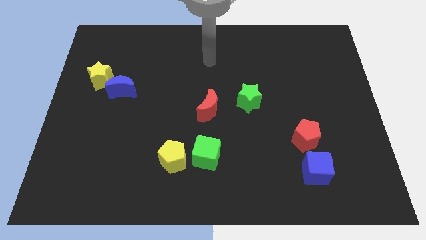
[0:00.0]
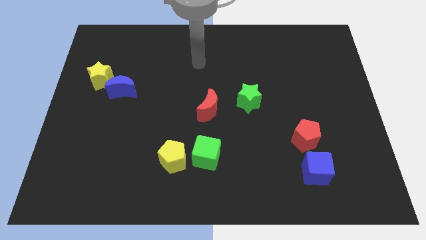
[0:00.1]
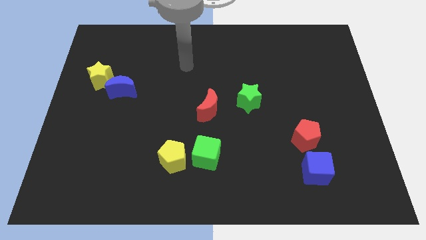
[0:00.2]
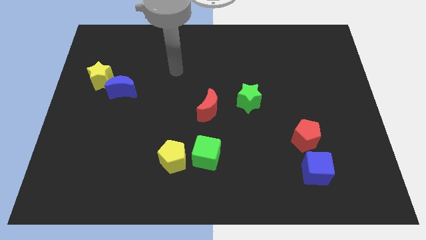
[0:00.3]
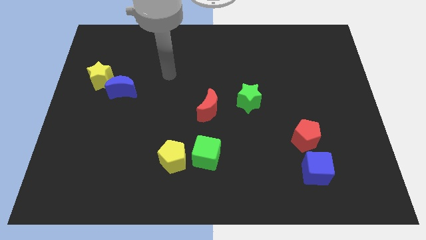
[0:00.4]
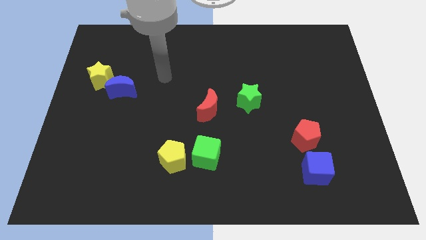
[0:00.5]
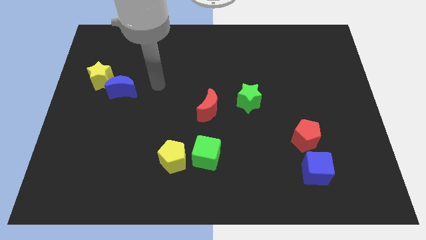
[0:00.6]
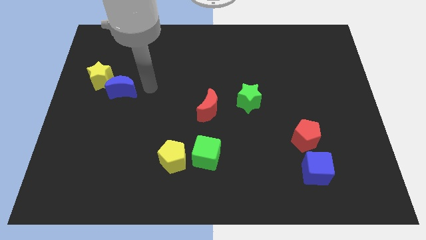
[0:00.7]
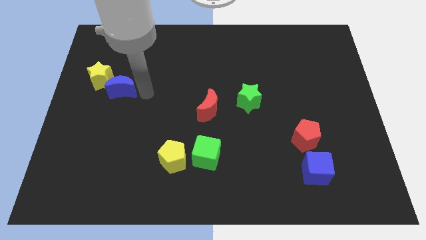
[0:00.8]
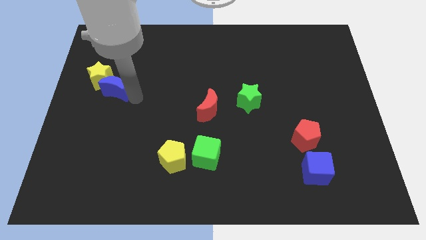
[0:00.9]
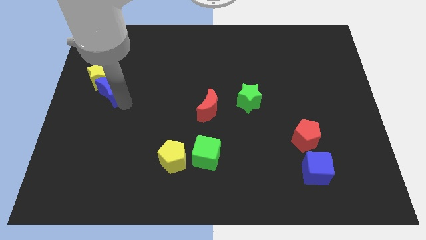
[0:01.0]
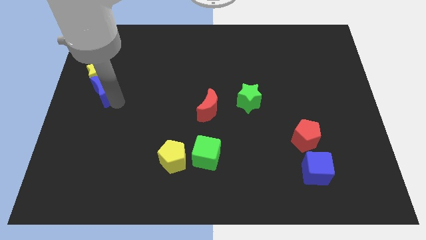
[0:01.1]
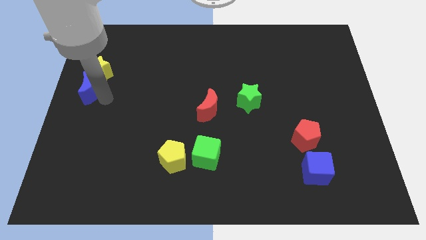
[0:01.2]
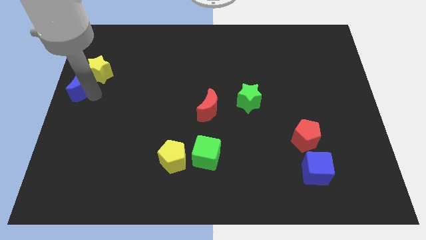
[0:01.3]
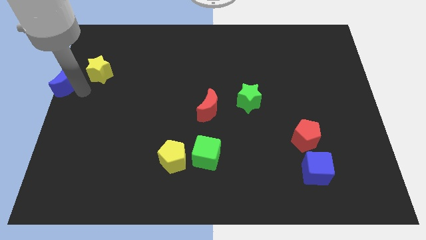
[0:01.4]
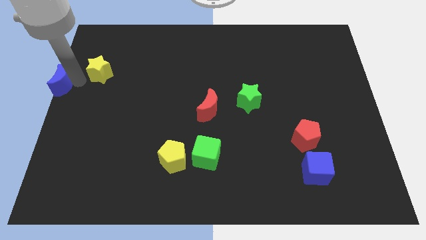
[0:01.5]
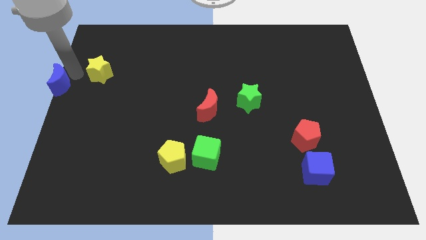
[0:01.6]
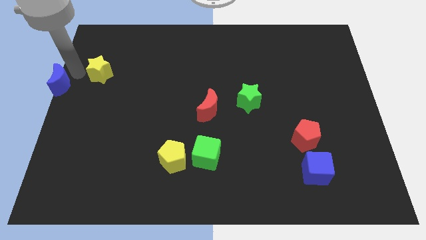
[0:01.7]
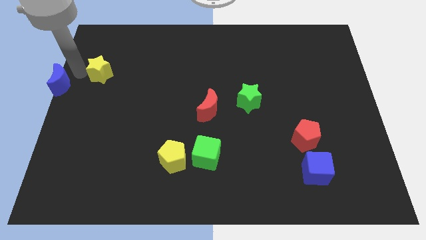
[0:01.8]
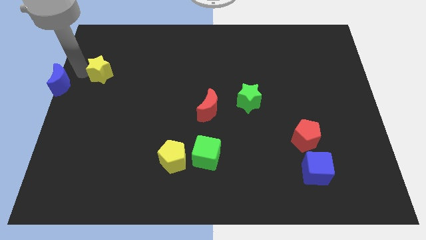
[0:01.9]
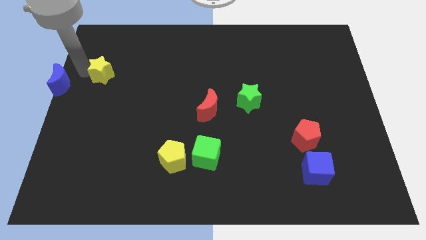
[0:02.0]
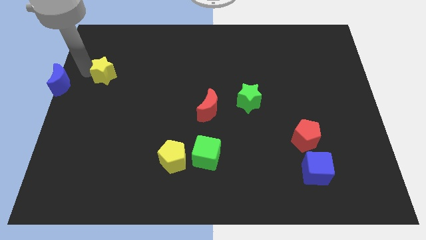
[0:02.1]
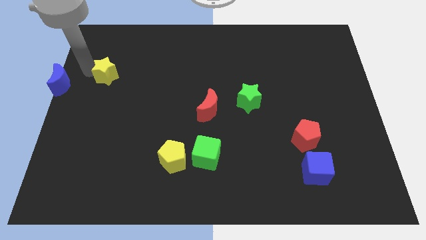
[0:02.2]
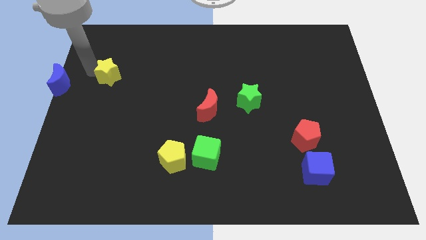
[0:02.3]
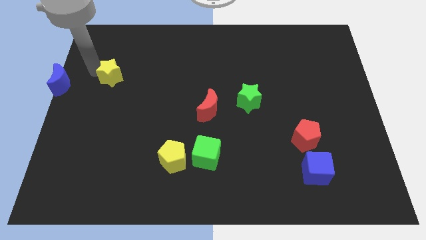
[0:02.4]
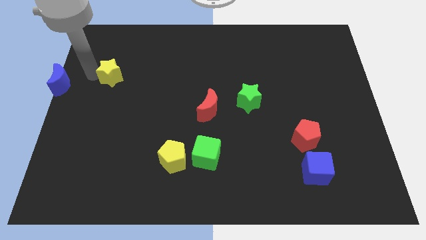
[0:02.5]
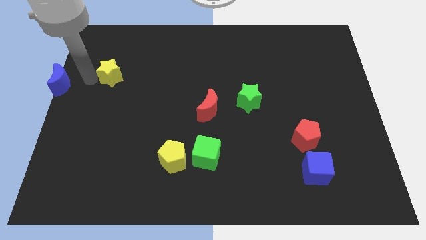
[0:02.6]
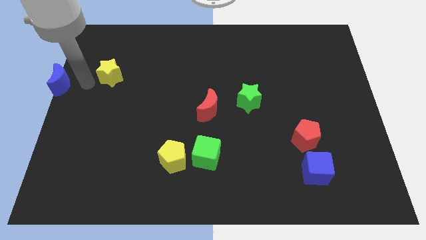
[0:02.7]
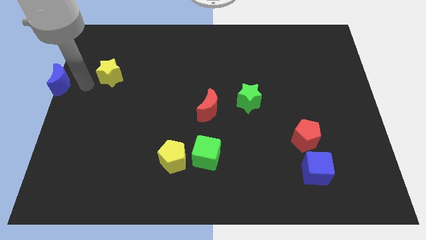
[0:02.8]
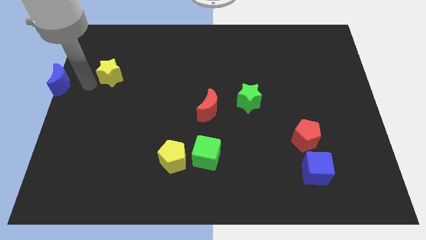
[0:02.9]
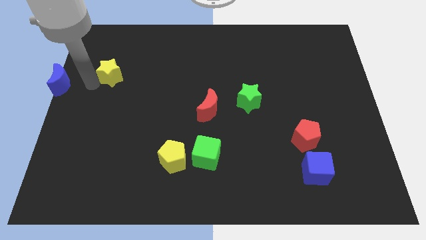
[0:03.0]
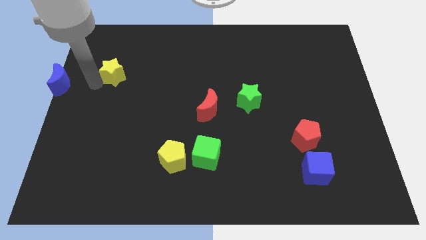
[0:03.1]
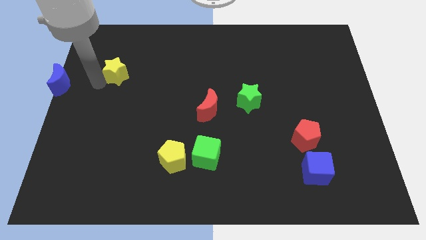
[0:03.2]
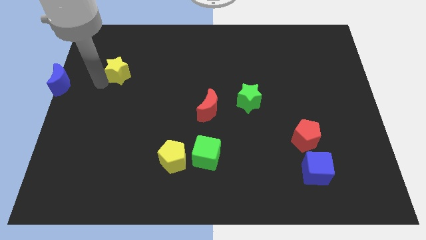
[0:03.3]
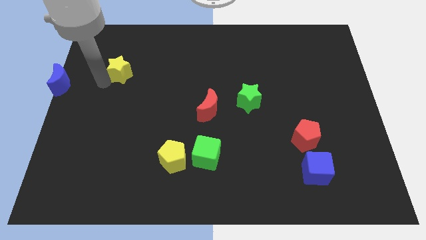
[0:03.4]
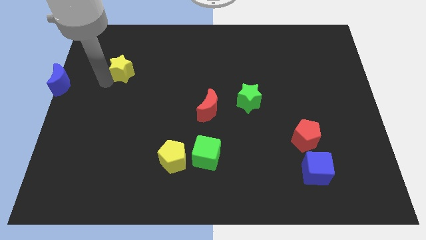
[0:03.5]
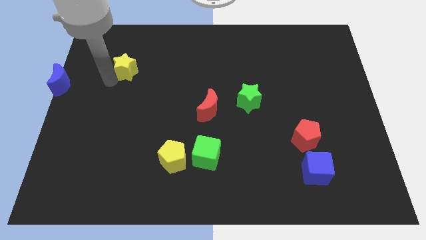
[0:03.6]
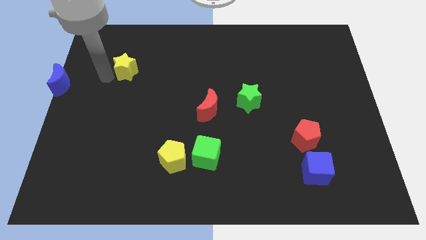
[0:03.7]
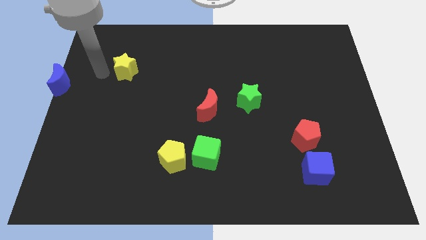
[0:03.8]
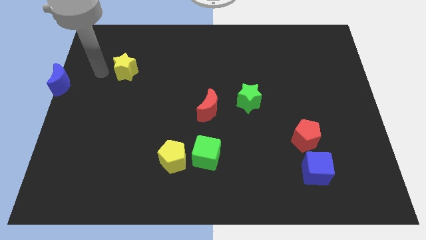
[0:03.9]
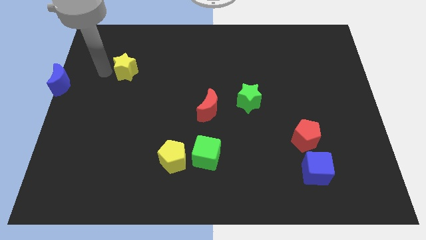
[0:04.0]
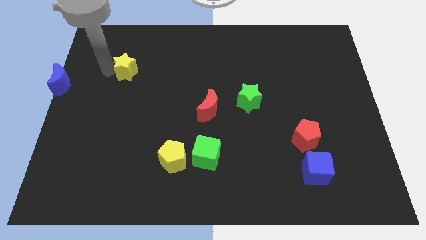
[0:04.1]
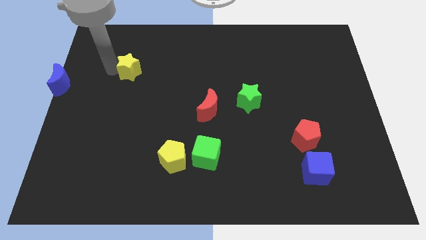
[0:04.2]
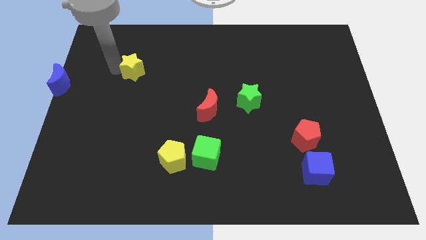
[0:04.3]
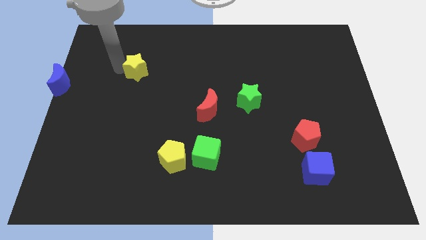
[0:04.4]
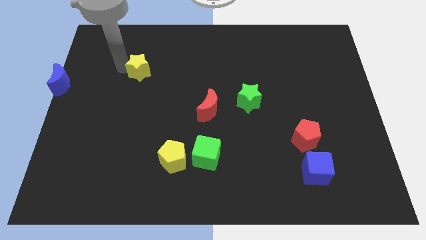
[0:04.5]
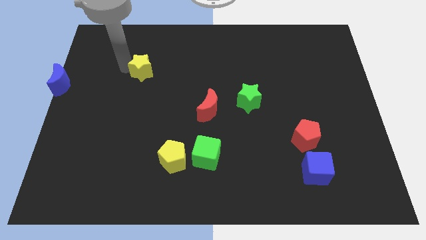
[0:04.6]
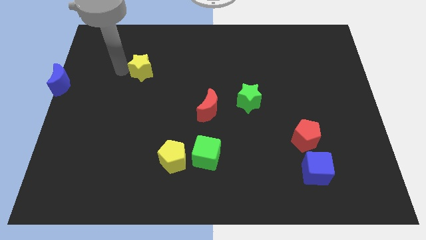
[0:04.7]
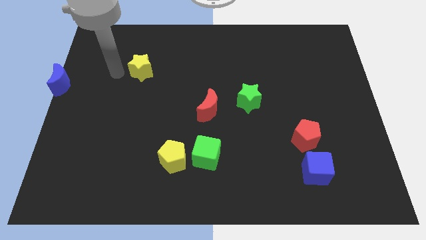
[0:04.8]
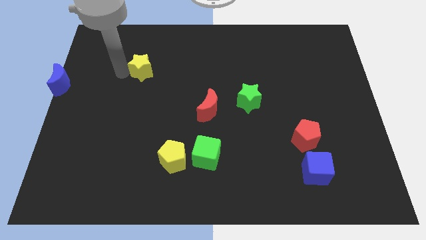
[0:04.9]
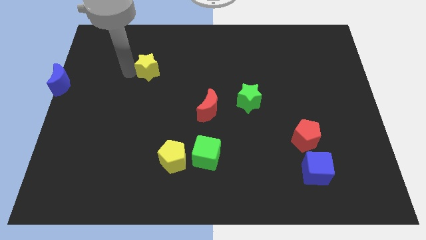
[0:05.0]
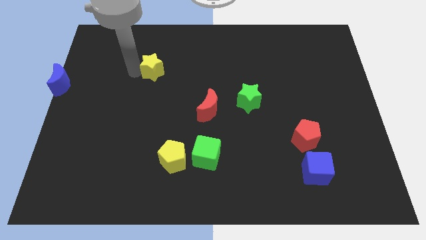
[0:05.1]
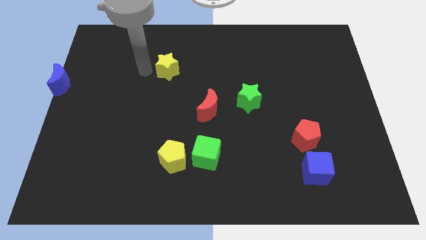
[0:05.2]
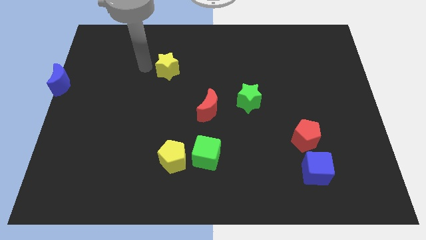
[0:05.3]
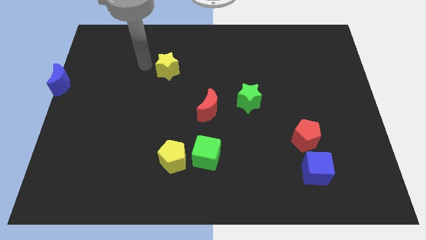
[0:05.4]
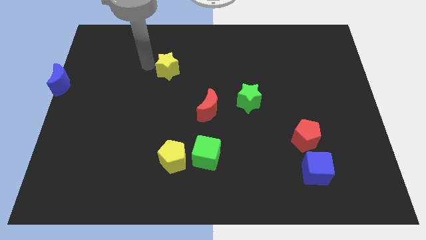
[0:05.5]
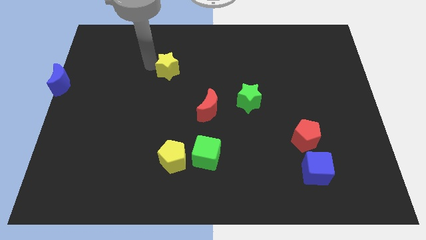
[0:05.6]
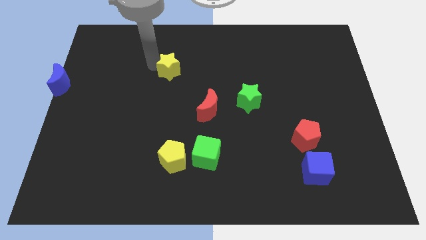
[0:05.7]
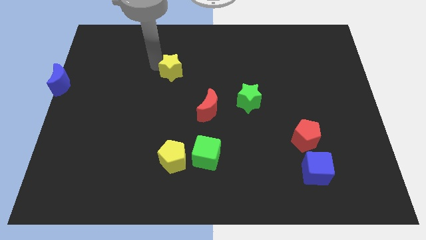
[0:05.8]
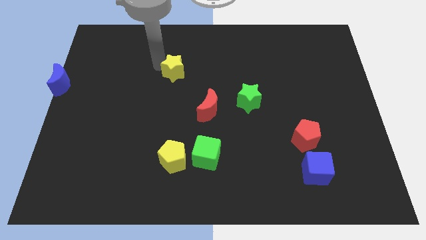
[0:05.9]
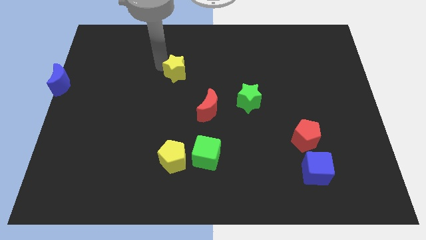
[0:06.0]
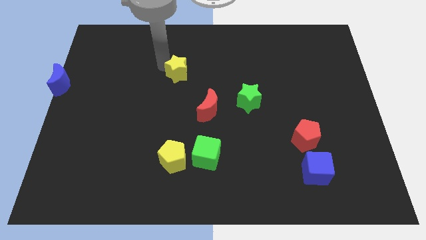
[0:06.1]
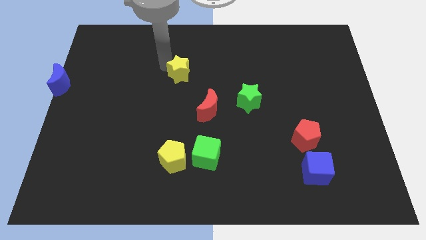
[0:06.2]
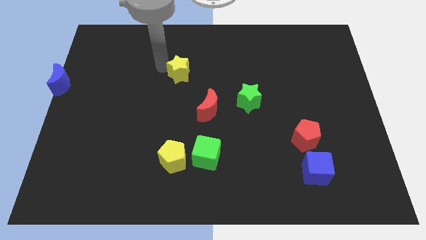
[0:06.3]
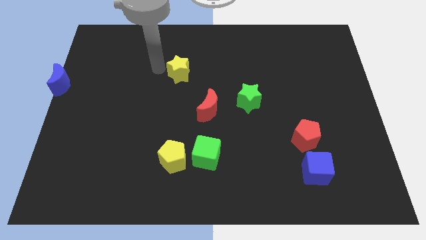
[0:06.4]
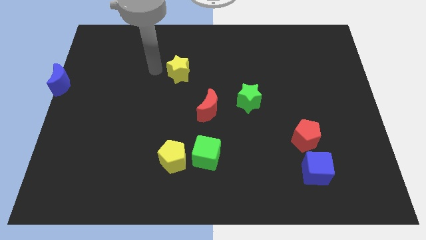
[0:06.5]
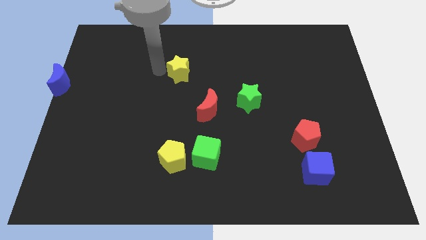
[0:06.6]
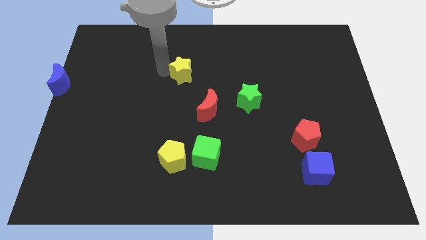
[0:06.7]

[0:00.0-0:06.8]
slide the yellow star right

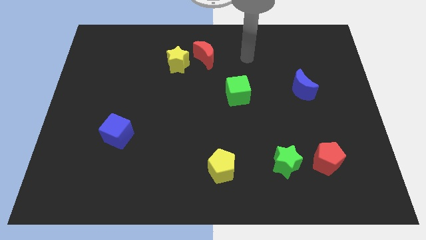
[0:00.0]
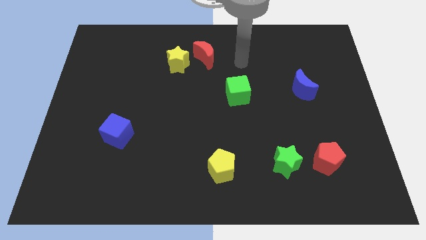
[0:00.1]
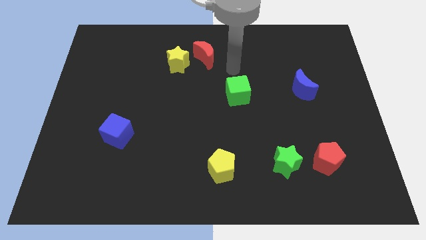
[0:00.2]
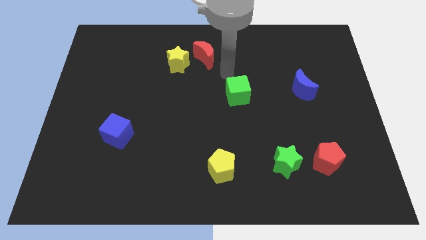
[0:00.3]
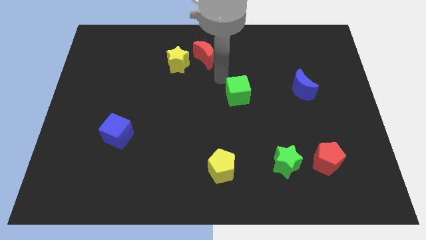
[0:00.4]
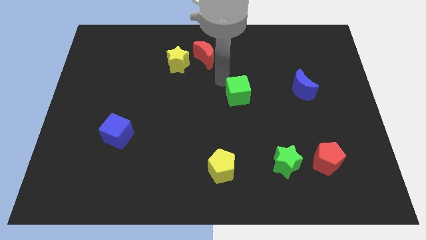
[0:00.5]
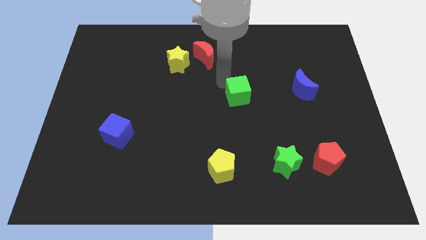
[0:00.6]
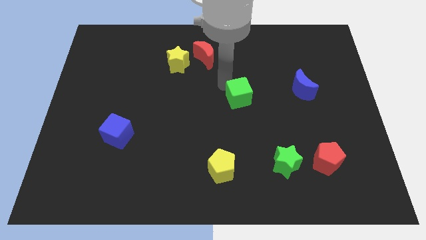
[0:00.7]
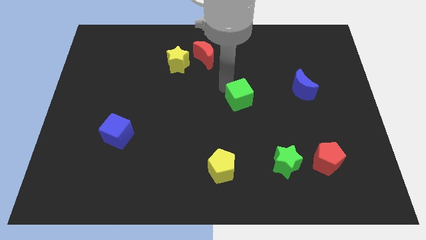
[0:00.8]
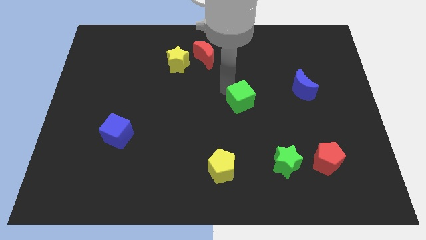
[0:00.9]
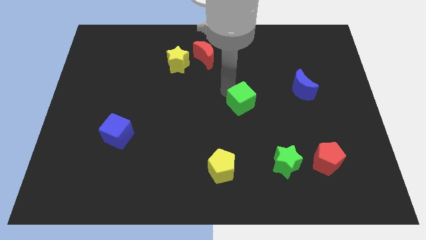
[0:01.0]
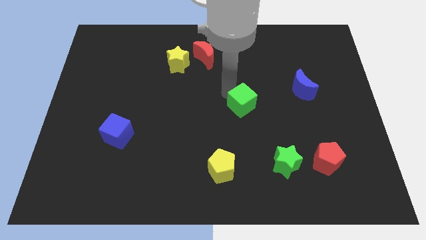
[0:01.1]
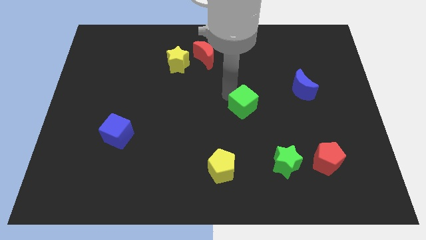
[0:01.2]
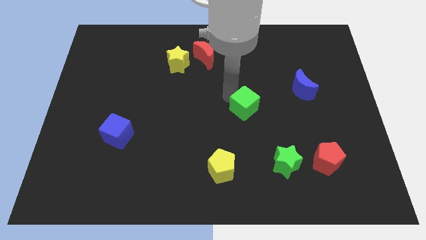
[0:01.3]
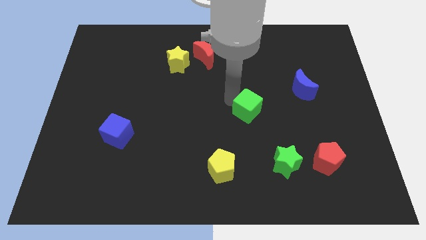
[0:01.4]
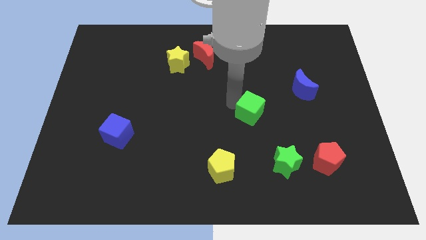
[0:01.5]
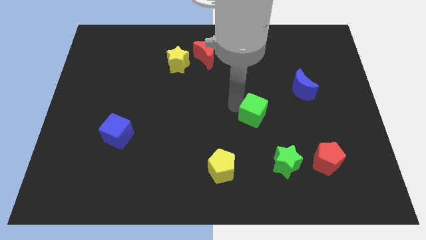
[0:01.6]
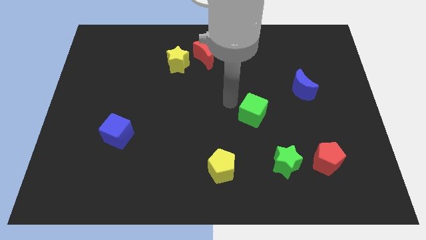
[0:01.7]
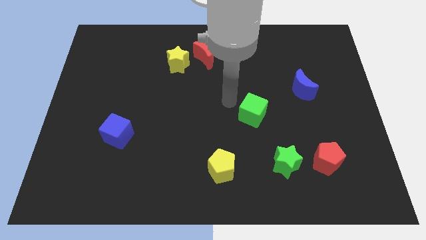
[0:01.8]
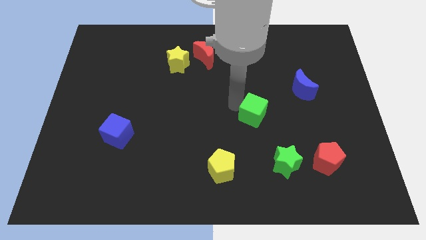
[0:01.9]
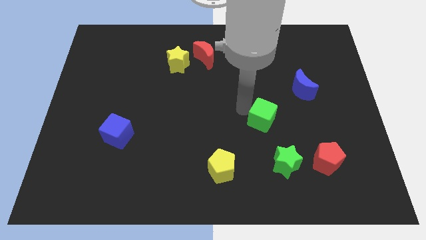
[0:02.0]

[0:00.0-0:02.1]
slightly slide the green cube diagonally down and to the right
